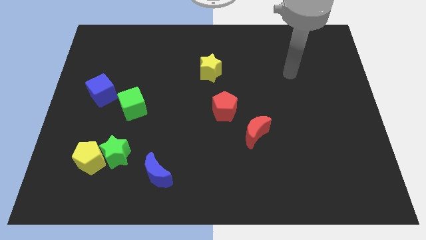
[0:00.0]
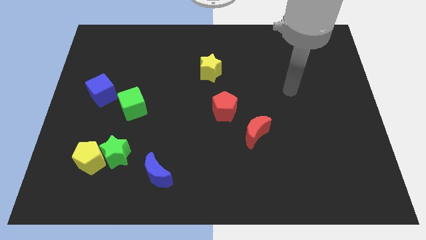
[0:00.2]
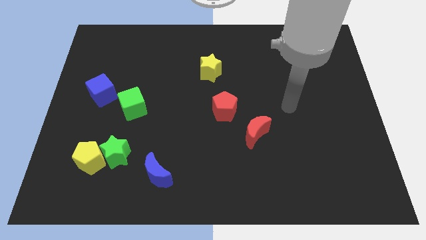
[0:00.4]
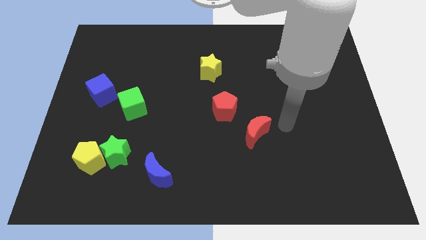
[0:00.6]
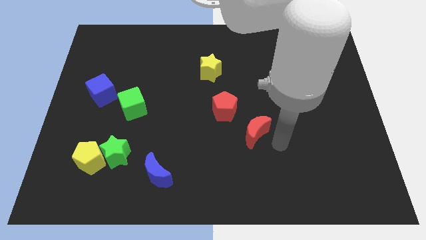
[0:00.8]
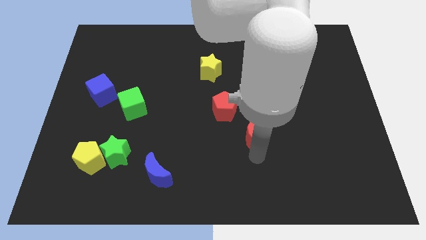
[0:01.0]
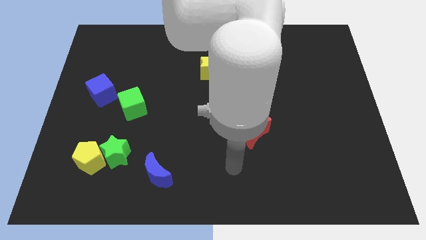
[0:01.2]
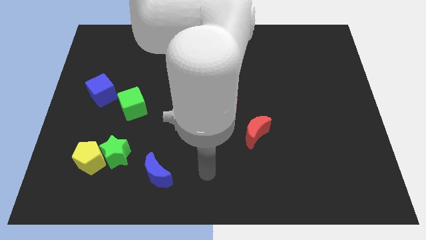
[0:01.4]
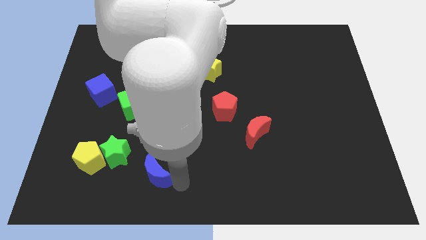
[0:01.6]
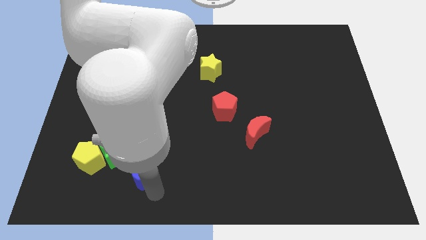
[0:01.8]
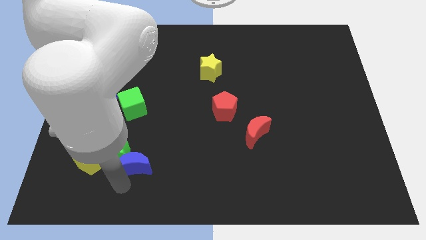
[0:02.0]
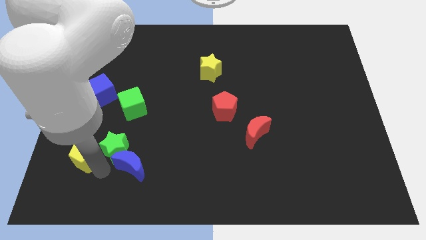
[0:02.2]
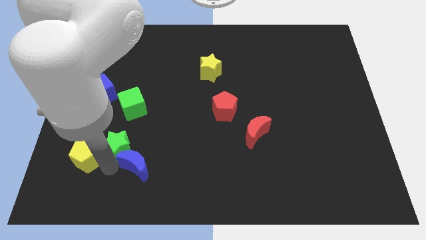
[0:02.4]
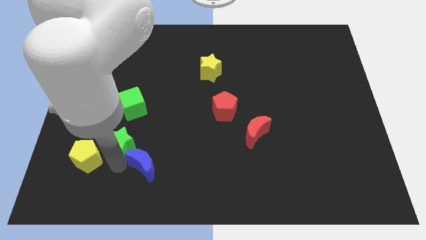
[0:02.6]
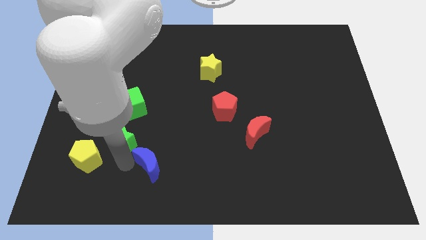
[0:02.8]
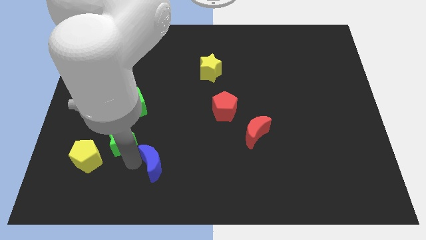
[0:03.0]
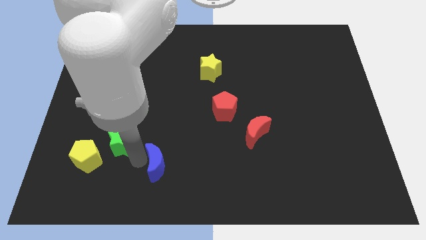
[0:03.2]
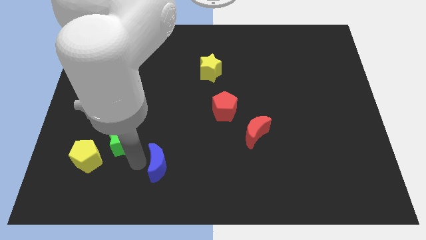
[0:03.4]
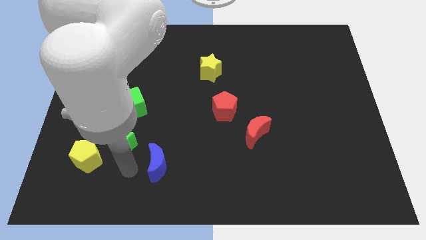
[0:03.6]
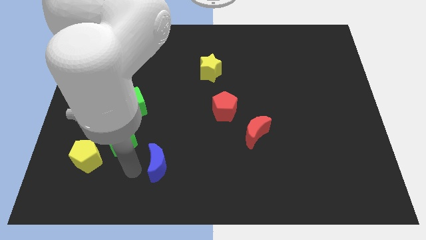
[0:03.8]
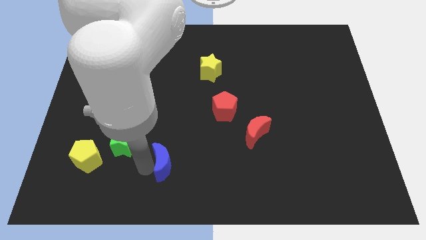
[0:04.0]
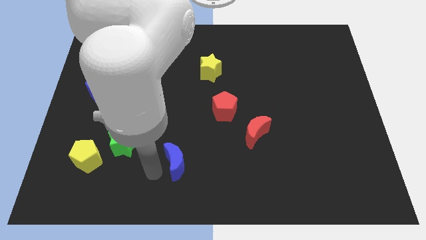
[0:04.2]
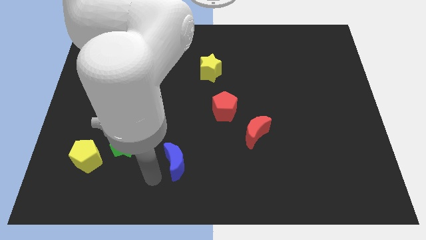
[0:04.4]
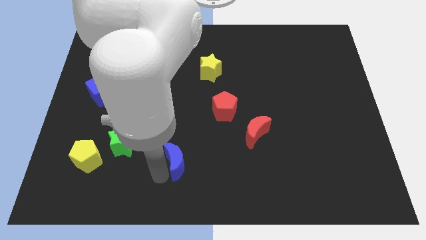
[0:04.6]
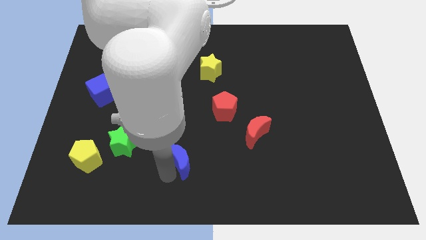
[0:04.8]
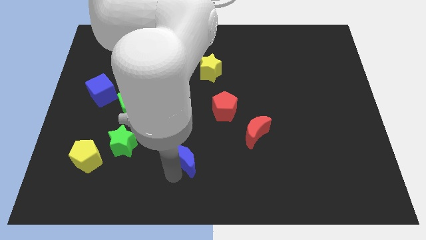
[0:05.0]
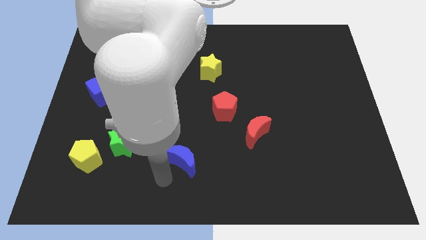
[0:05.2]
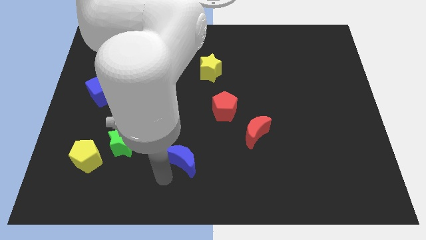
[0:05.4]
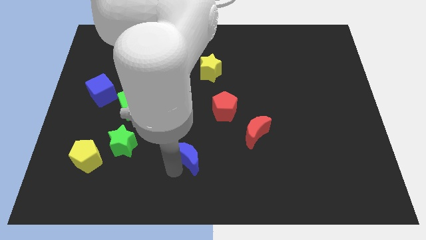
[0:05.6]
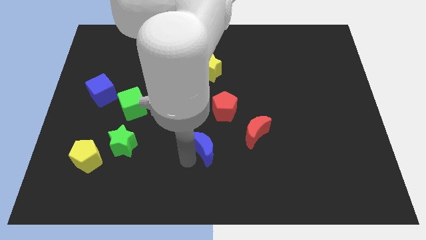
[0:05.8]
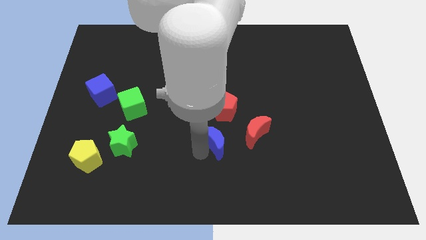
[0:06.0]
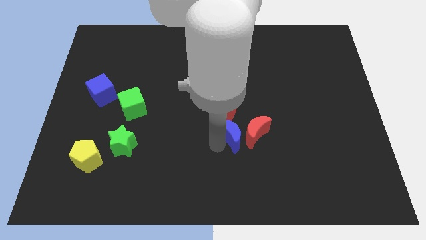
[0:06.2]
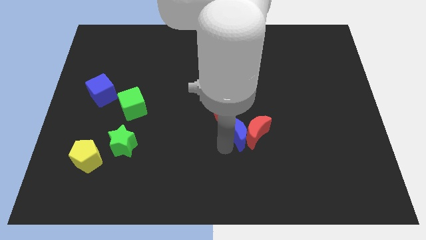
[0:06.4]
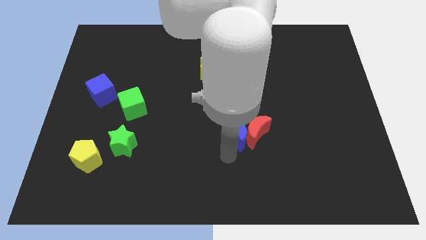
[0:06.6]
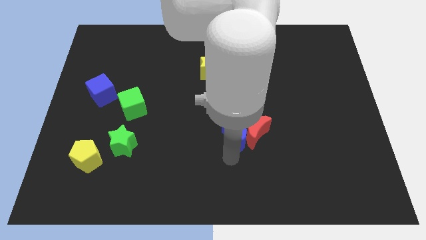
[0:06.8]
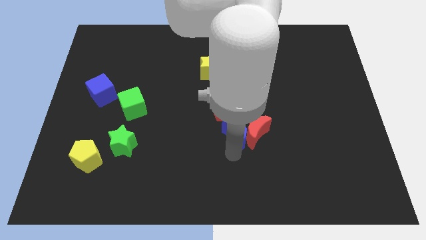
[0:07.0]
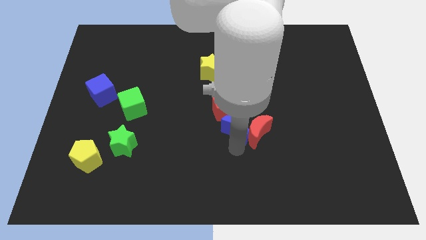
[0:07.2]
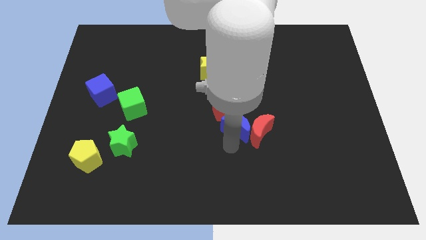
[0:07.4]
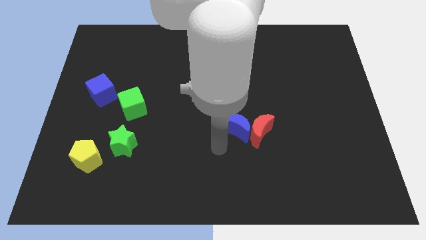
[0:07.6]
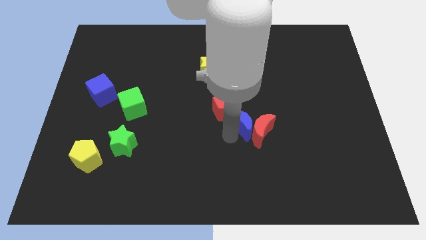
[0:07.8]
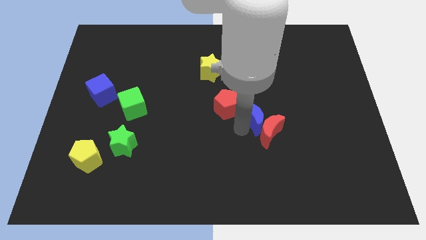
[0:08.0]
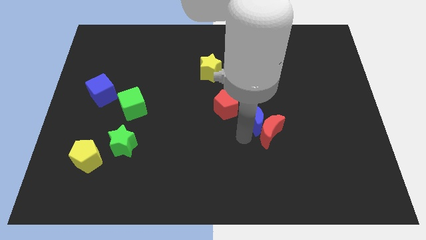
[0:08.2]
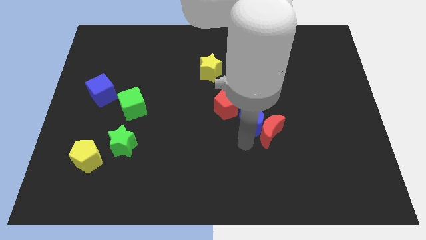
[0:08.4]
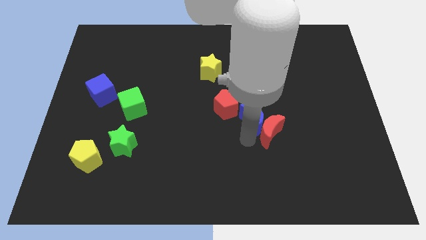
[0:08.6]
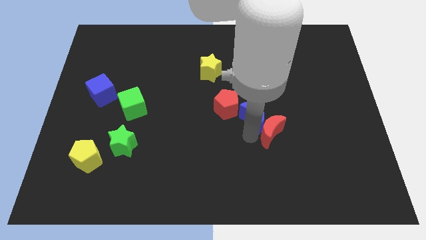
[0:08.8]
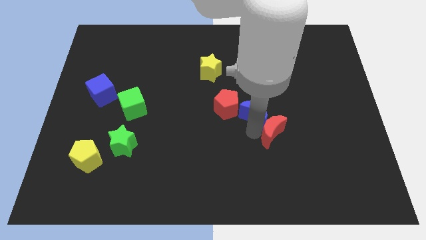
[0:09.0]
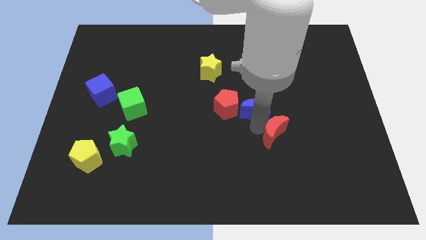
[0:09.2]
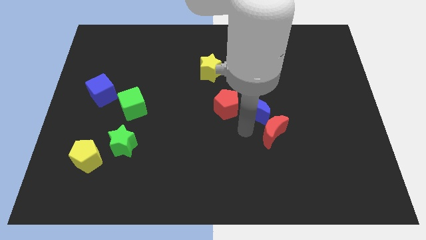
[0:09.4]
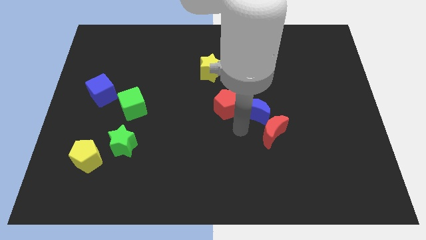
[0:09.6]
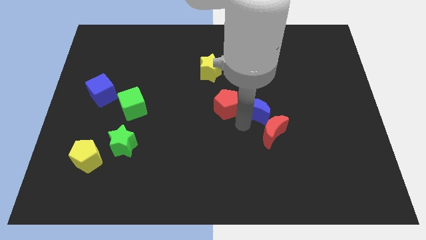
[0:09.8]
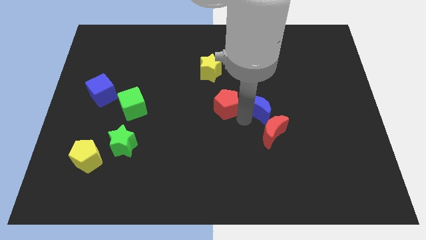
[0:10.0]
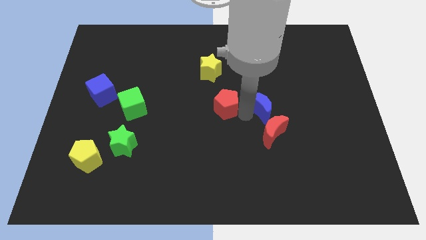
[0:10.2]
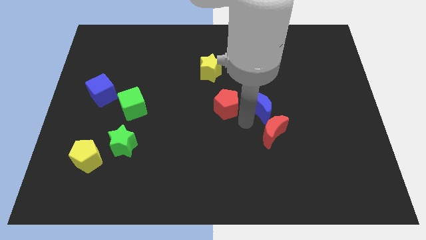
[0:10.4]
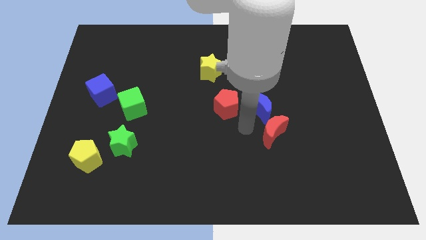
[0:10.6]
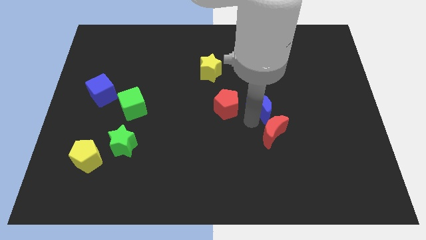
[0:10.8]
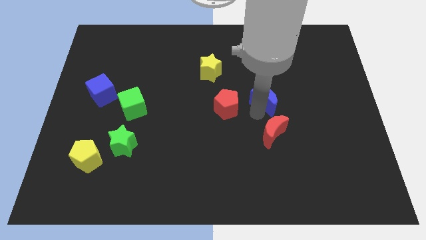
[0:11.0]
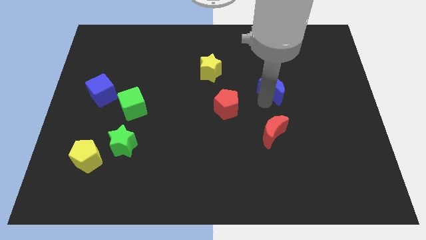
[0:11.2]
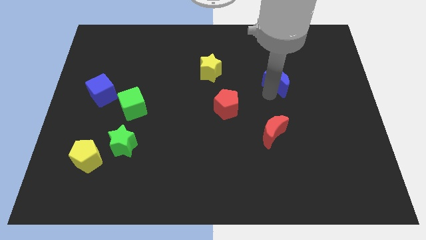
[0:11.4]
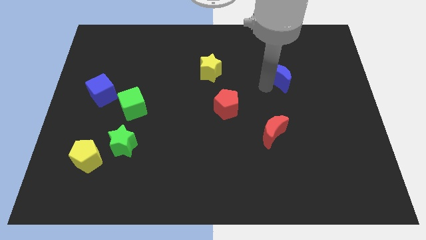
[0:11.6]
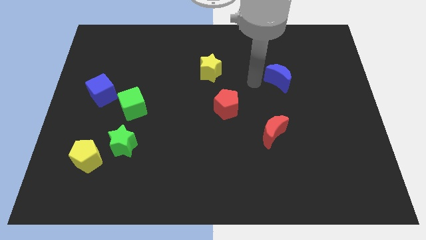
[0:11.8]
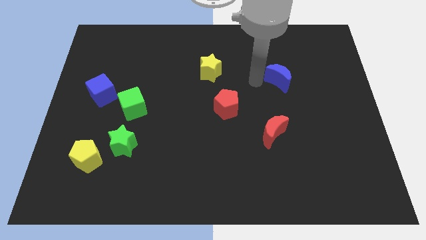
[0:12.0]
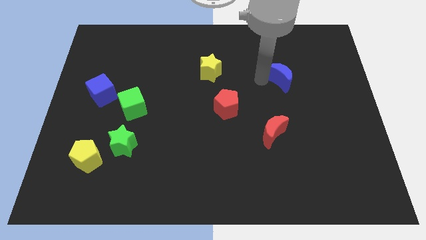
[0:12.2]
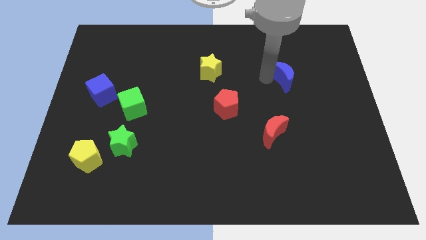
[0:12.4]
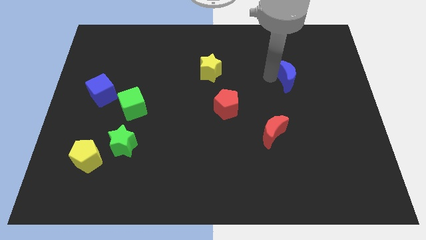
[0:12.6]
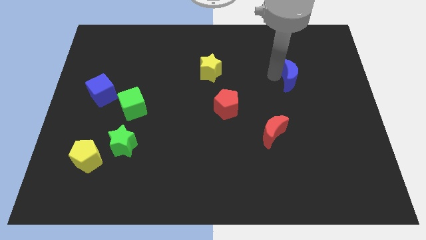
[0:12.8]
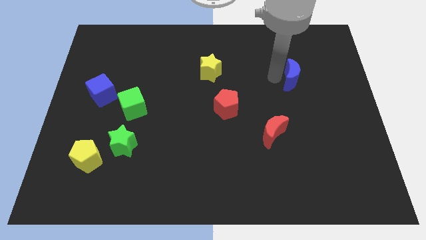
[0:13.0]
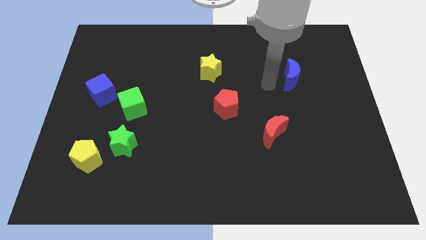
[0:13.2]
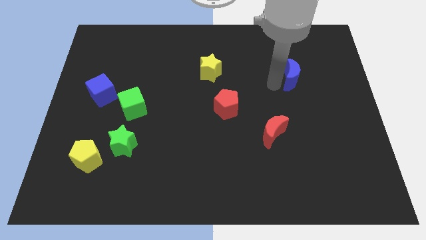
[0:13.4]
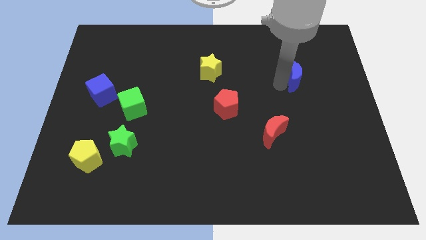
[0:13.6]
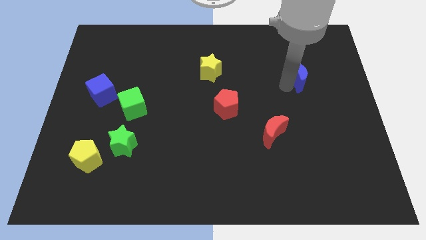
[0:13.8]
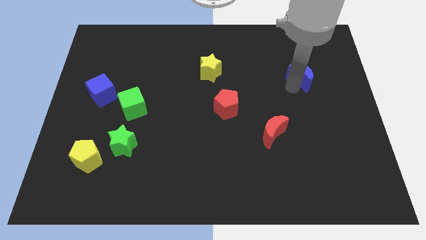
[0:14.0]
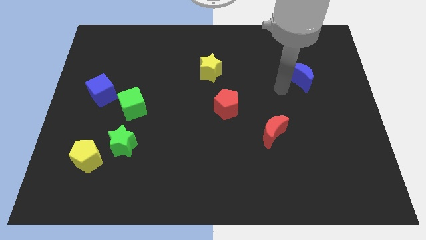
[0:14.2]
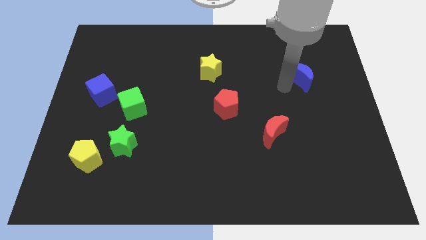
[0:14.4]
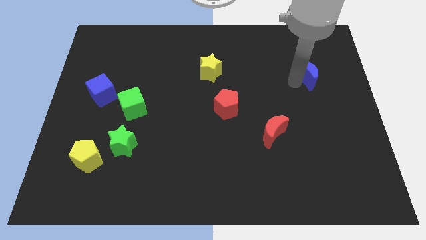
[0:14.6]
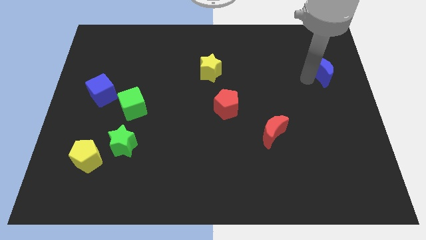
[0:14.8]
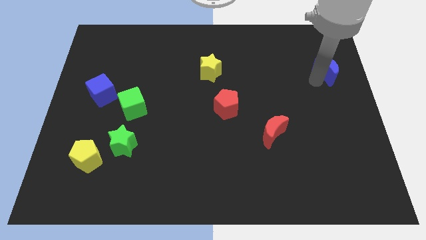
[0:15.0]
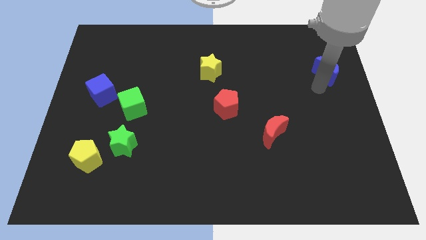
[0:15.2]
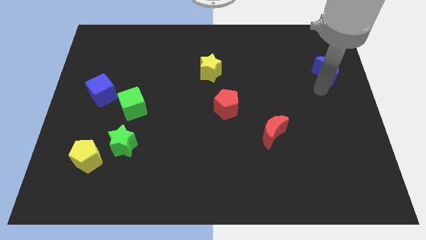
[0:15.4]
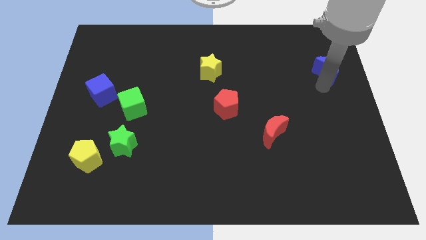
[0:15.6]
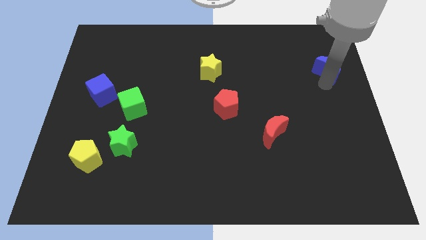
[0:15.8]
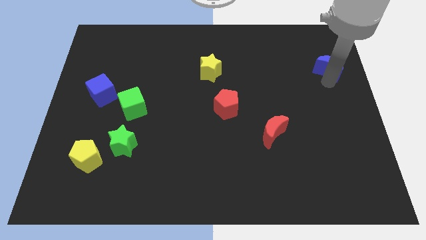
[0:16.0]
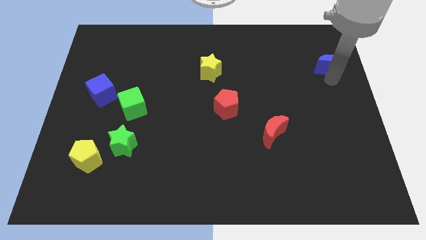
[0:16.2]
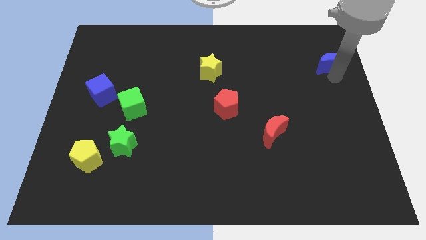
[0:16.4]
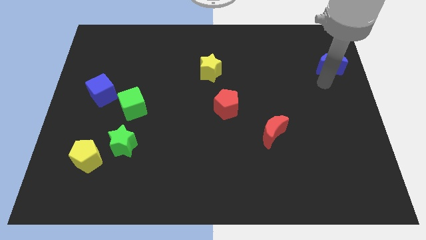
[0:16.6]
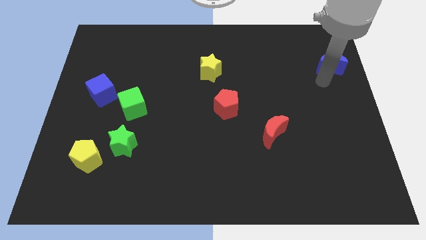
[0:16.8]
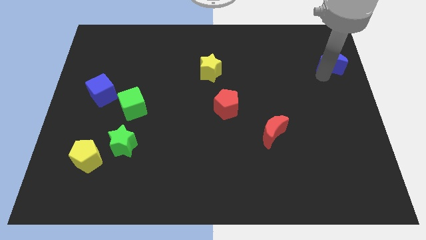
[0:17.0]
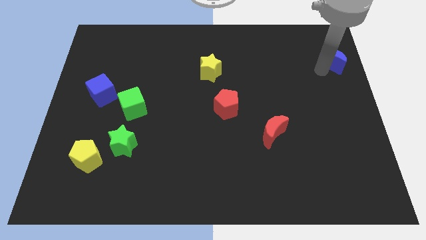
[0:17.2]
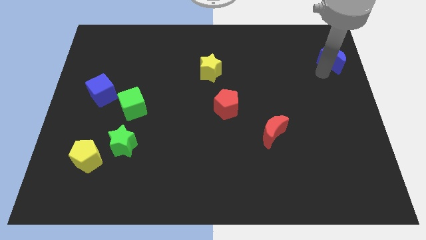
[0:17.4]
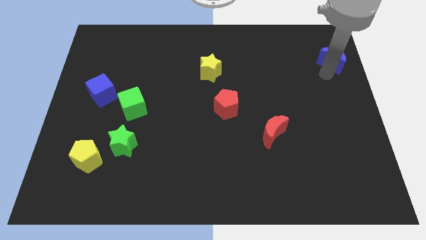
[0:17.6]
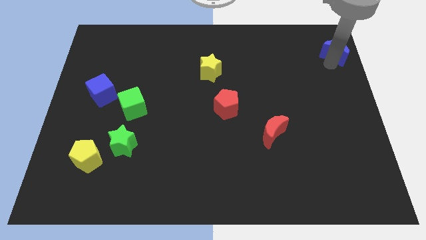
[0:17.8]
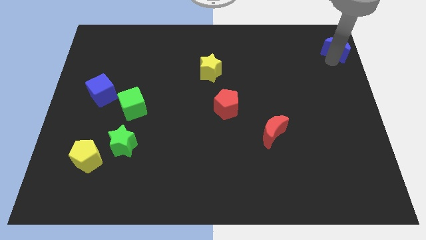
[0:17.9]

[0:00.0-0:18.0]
push the blue moon to the upper right corner
